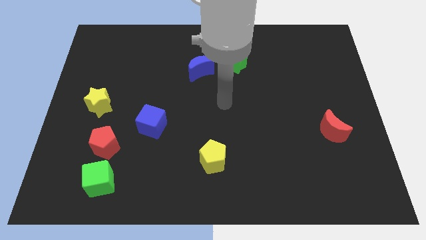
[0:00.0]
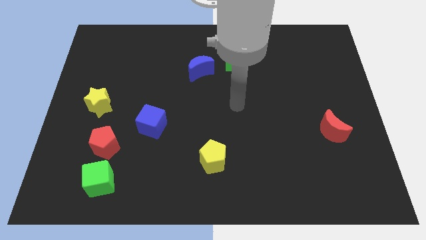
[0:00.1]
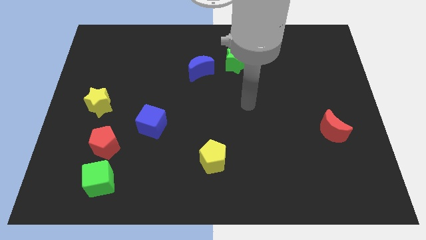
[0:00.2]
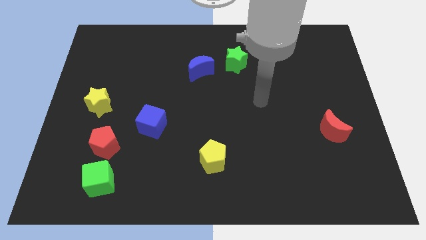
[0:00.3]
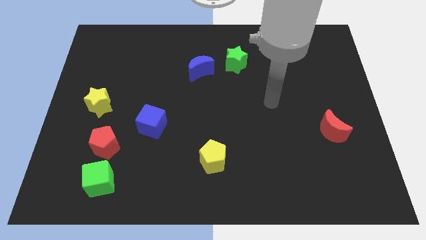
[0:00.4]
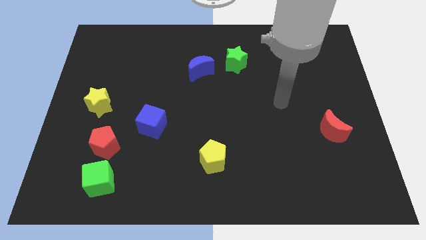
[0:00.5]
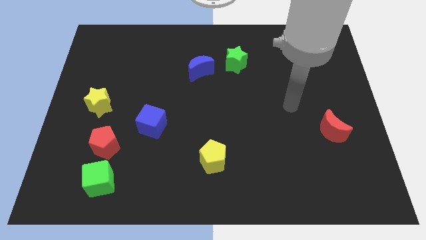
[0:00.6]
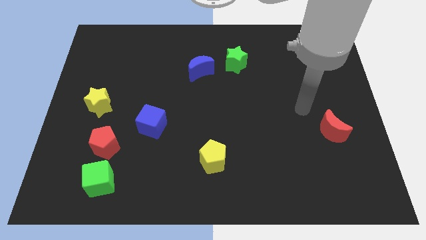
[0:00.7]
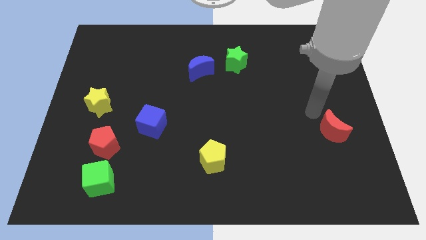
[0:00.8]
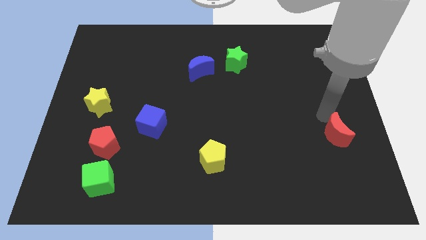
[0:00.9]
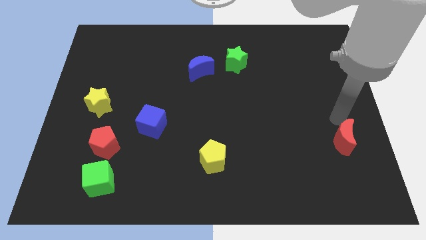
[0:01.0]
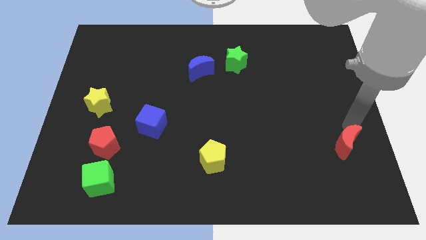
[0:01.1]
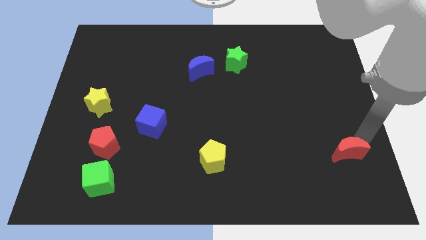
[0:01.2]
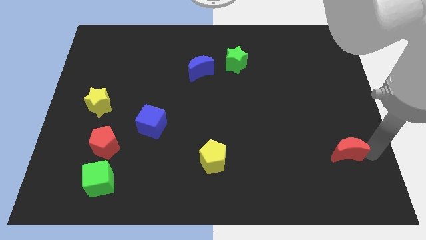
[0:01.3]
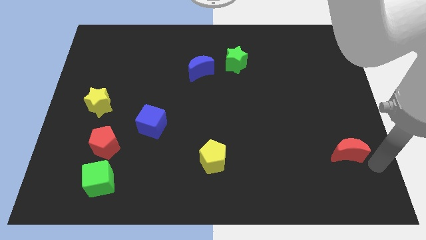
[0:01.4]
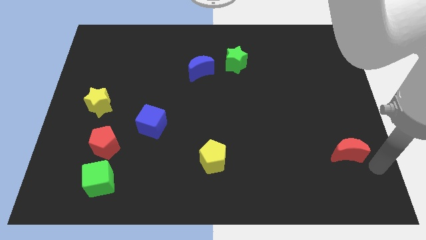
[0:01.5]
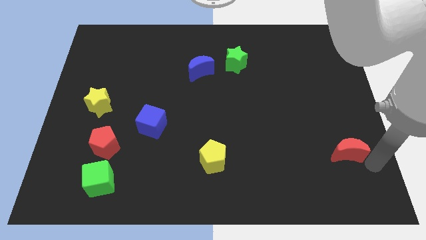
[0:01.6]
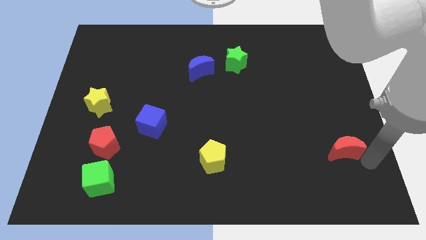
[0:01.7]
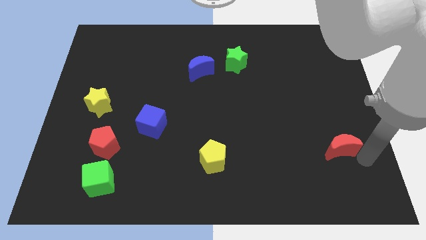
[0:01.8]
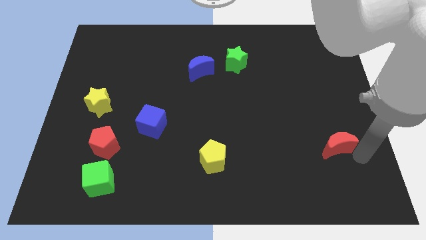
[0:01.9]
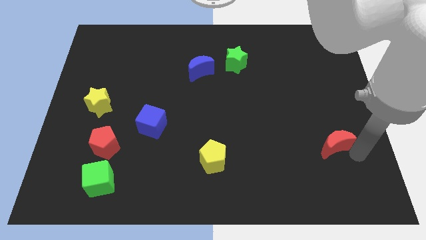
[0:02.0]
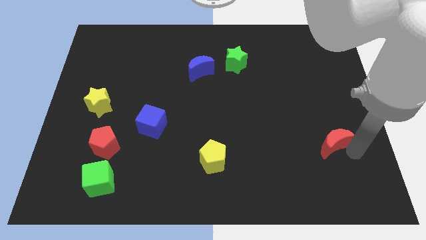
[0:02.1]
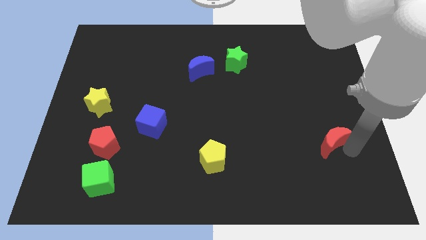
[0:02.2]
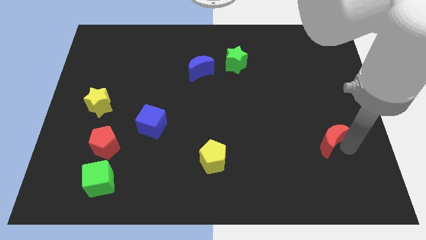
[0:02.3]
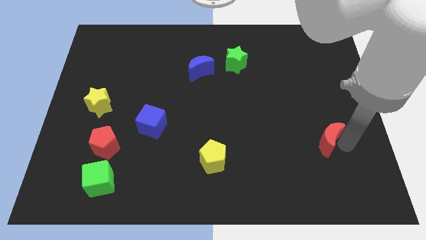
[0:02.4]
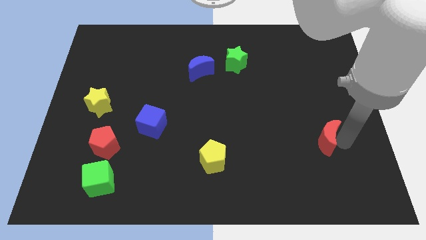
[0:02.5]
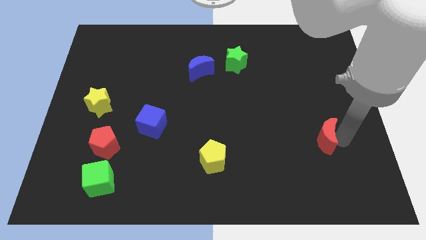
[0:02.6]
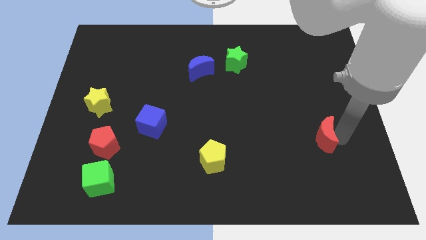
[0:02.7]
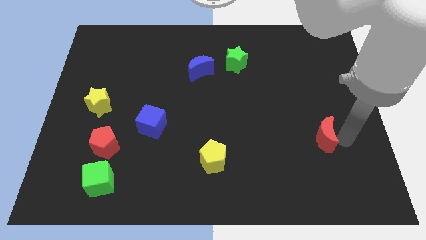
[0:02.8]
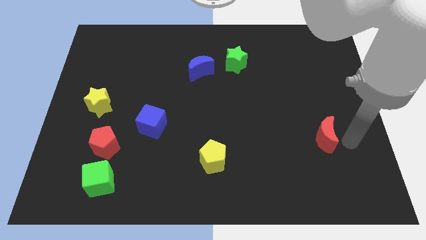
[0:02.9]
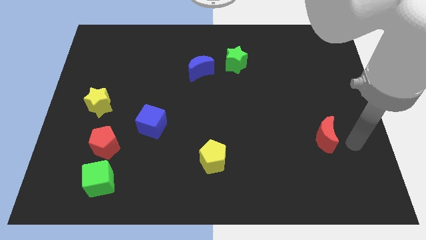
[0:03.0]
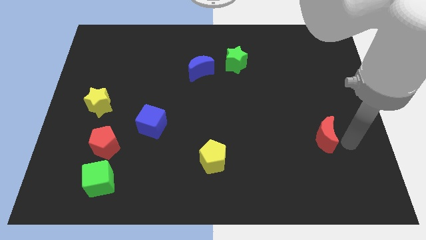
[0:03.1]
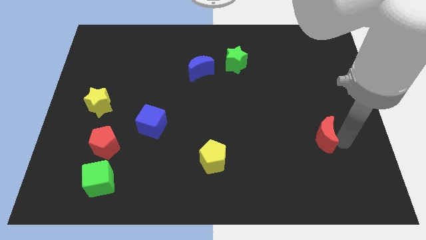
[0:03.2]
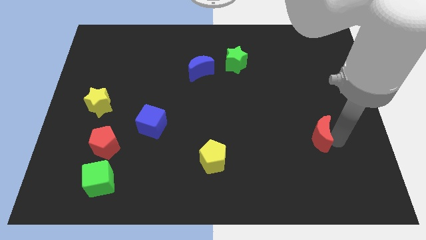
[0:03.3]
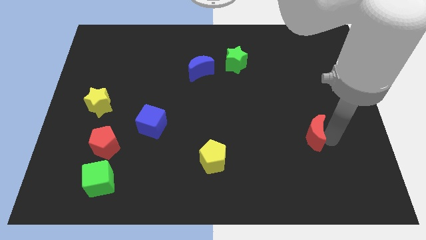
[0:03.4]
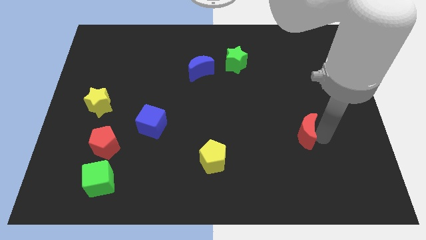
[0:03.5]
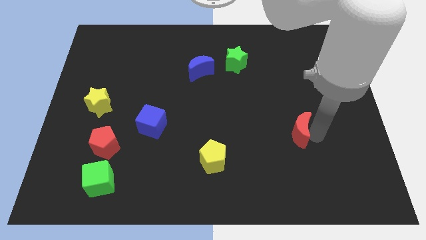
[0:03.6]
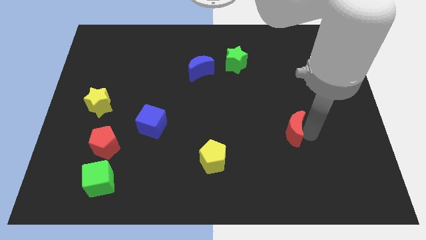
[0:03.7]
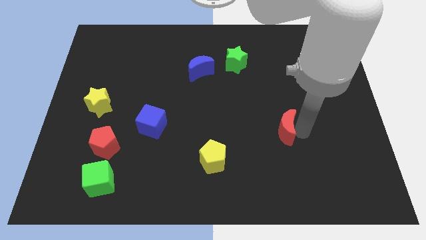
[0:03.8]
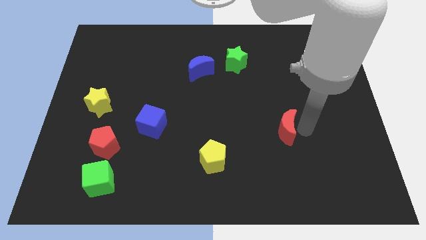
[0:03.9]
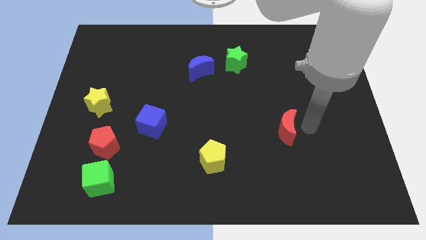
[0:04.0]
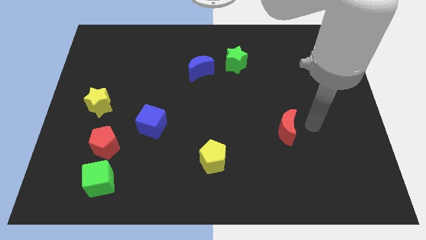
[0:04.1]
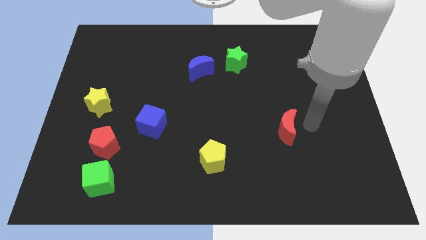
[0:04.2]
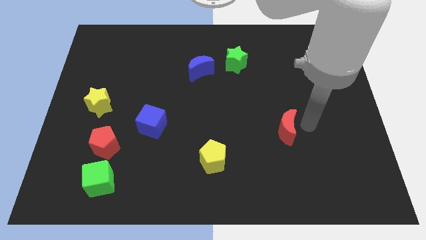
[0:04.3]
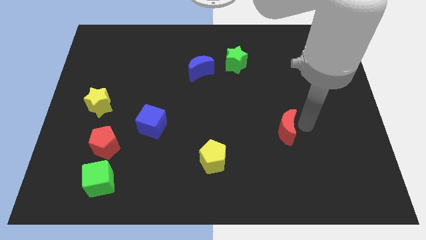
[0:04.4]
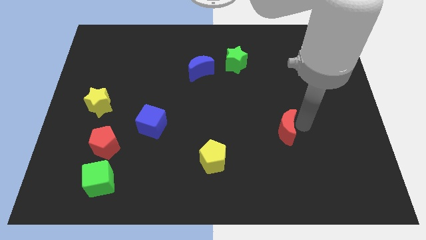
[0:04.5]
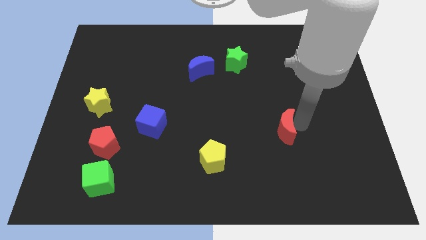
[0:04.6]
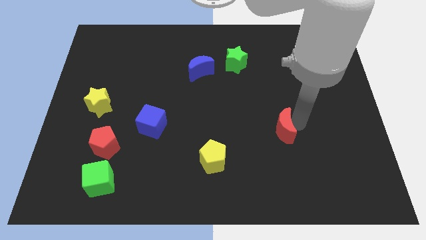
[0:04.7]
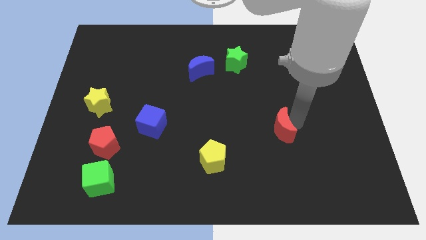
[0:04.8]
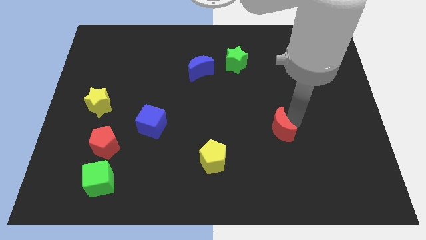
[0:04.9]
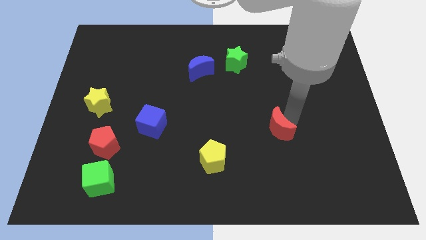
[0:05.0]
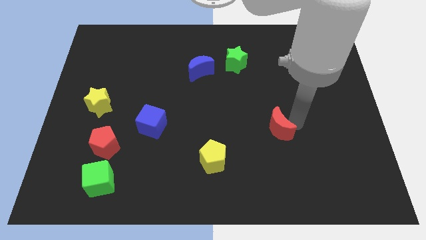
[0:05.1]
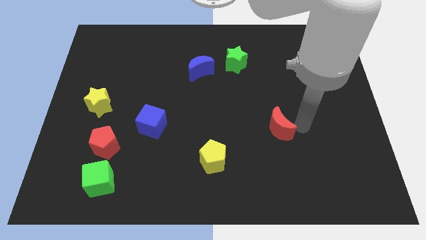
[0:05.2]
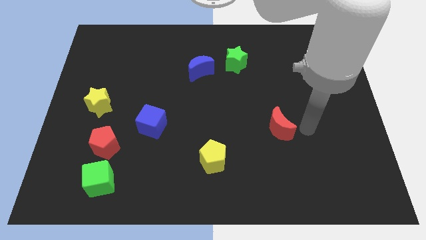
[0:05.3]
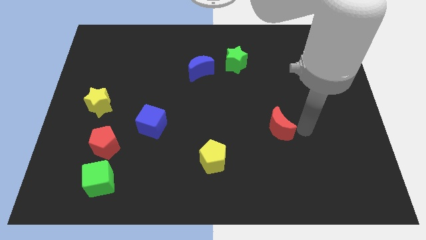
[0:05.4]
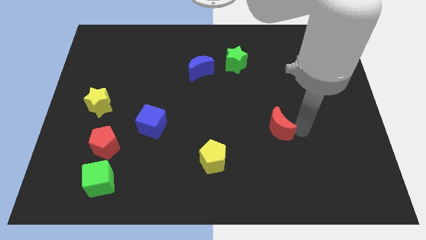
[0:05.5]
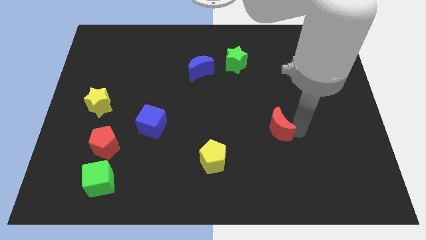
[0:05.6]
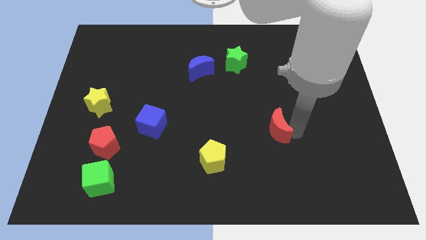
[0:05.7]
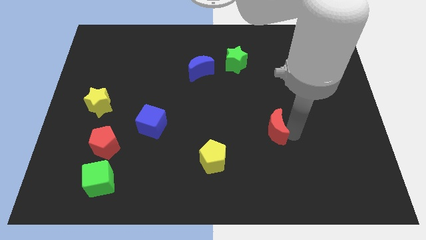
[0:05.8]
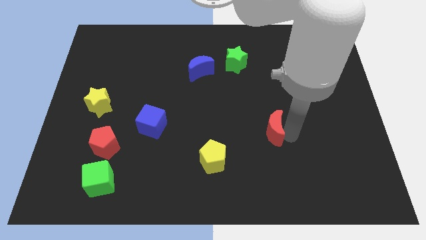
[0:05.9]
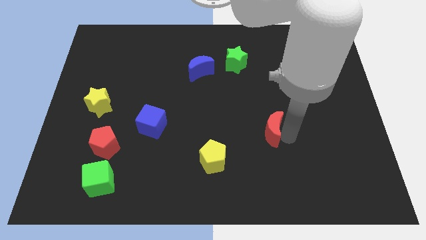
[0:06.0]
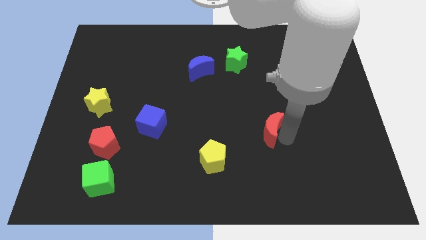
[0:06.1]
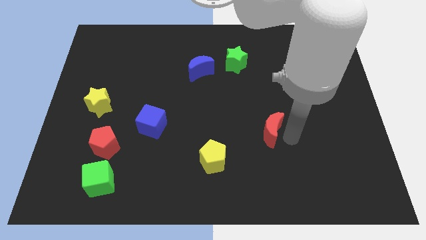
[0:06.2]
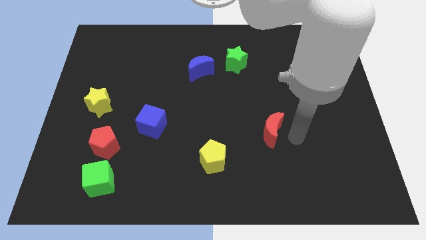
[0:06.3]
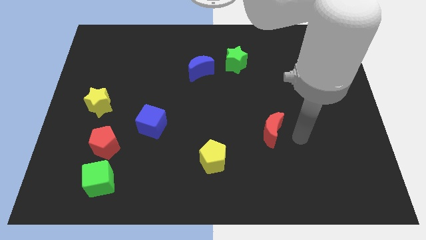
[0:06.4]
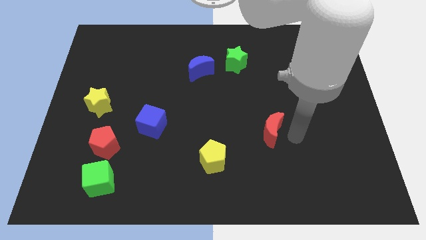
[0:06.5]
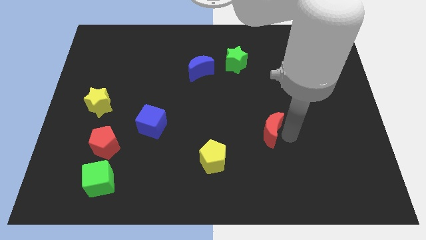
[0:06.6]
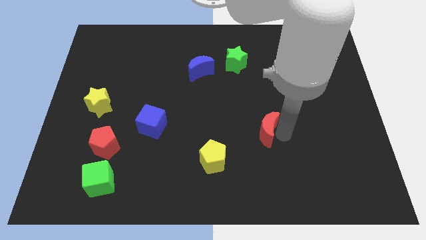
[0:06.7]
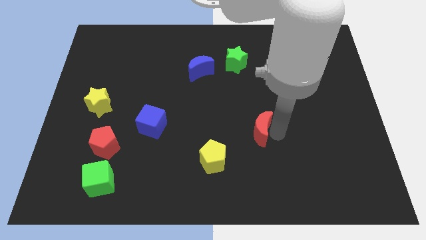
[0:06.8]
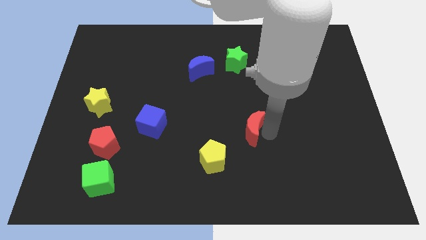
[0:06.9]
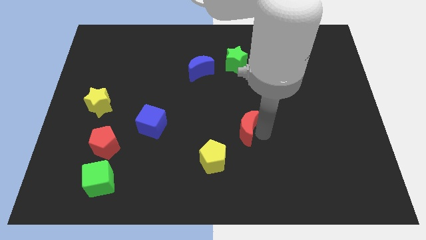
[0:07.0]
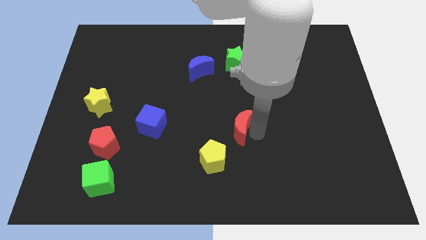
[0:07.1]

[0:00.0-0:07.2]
push the red moon to the left

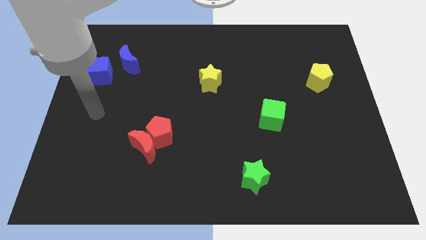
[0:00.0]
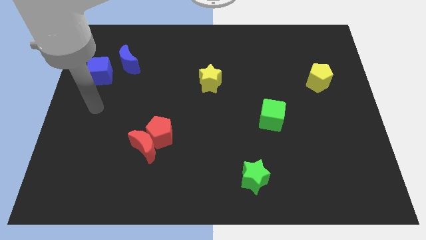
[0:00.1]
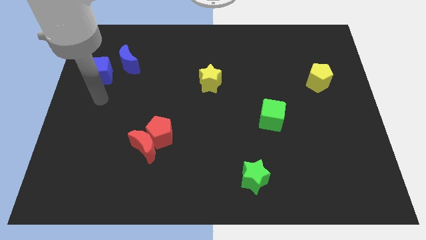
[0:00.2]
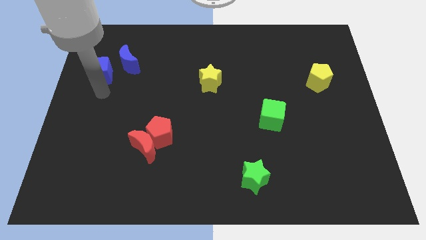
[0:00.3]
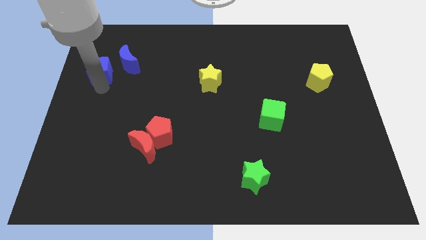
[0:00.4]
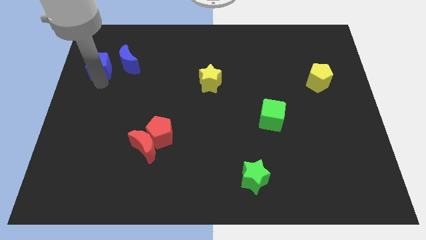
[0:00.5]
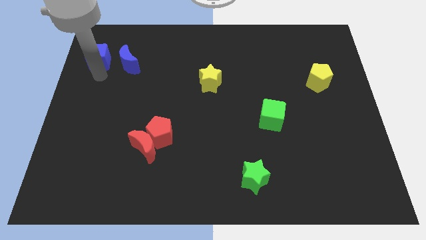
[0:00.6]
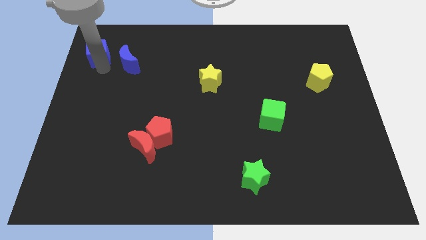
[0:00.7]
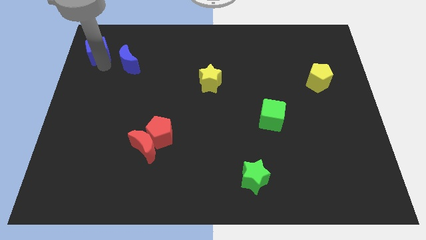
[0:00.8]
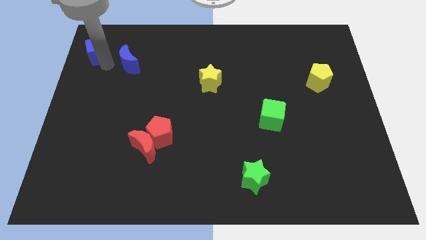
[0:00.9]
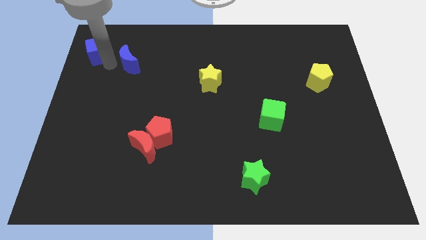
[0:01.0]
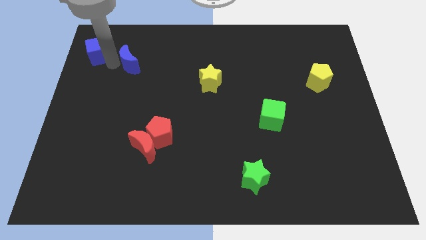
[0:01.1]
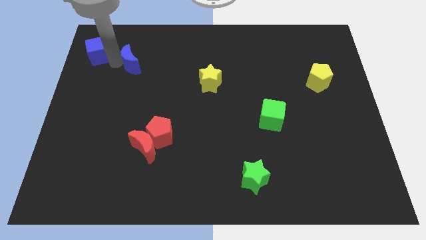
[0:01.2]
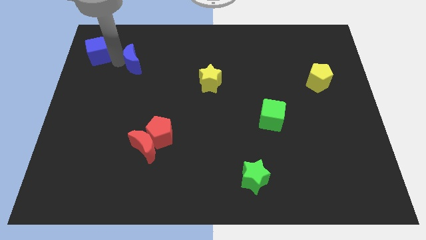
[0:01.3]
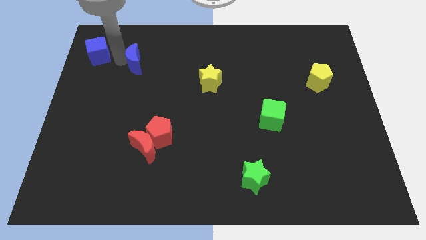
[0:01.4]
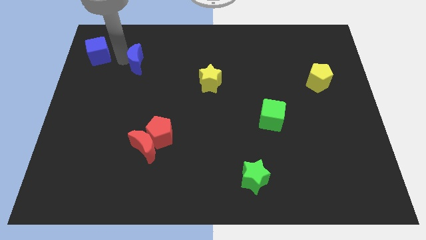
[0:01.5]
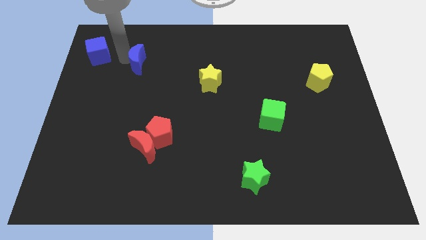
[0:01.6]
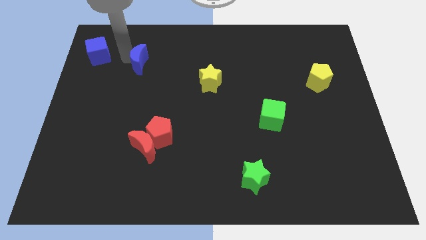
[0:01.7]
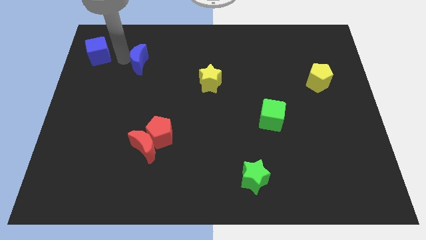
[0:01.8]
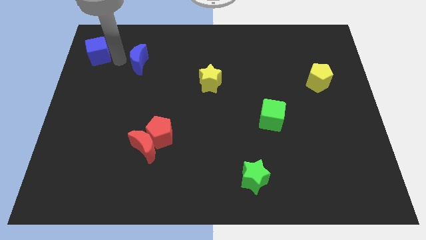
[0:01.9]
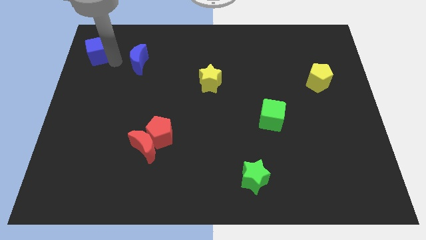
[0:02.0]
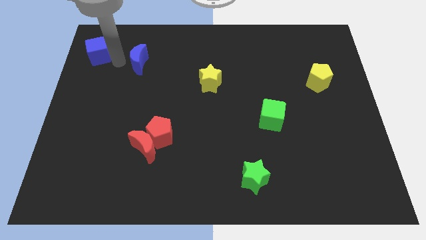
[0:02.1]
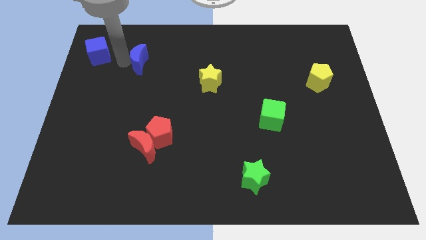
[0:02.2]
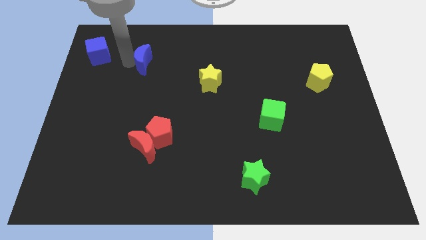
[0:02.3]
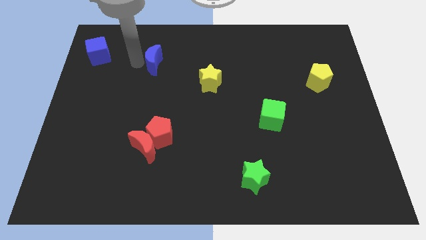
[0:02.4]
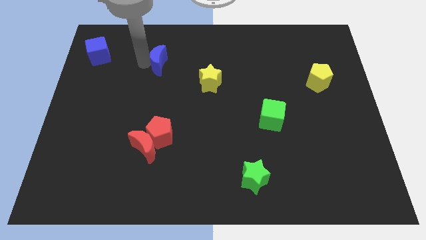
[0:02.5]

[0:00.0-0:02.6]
move the blue moon to the right a bit
